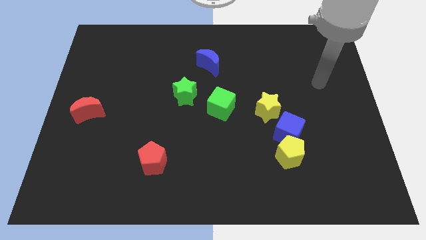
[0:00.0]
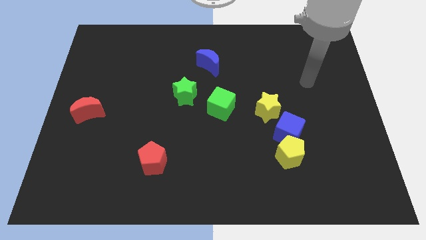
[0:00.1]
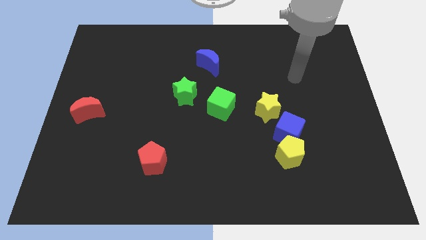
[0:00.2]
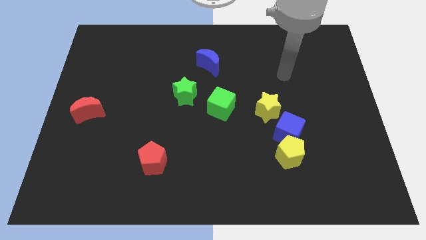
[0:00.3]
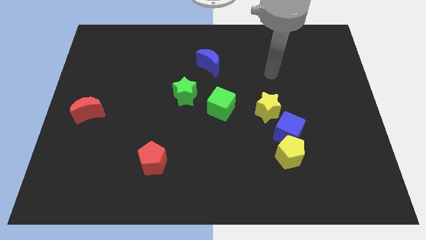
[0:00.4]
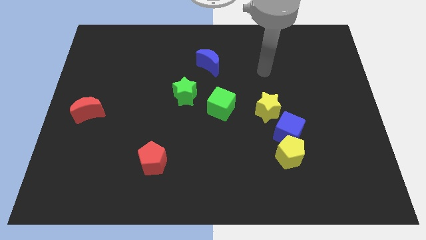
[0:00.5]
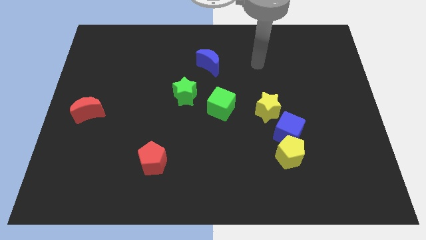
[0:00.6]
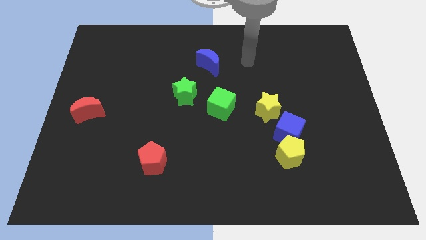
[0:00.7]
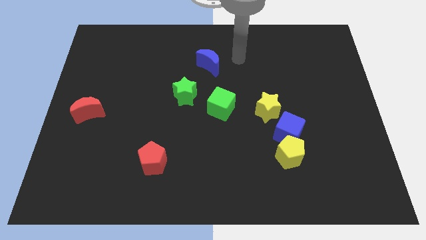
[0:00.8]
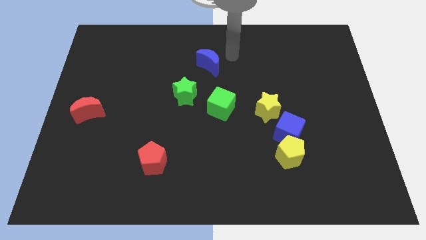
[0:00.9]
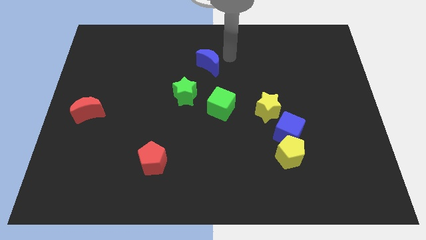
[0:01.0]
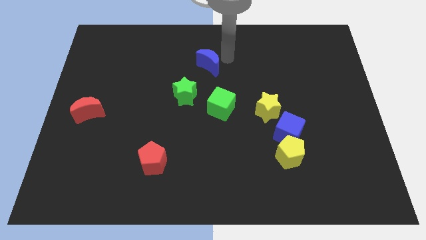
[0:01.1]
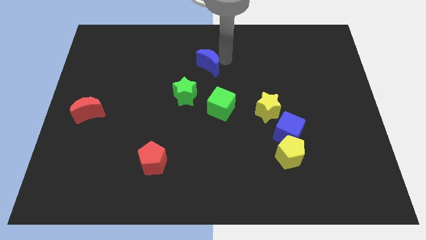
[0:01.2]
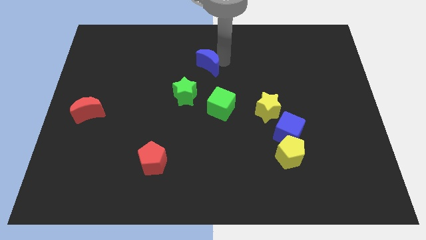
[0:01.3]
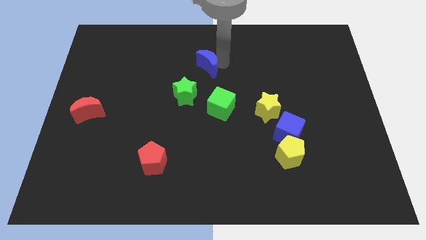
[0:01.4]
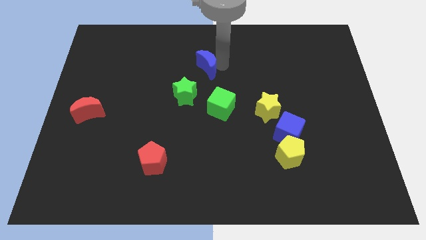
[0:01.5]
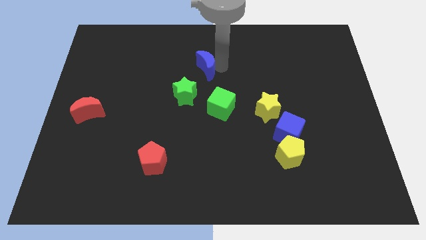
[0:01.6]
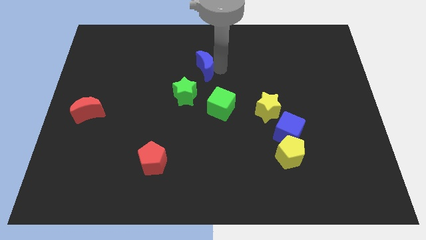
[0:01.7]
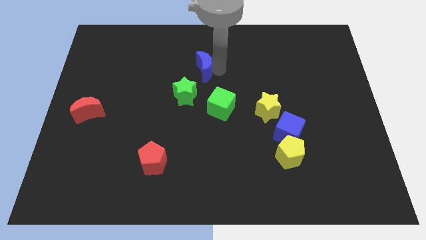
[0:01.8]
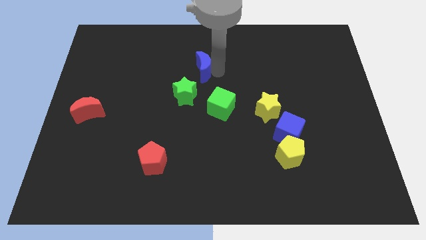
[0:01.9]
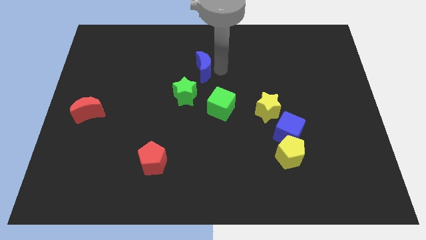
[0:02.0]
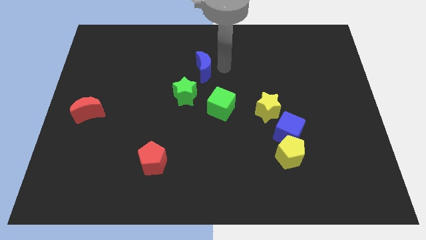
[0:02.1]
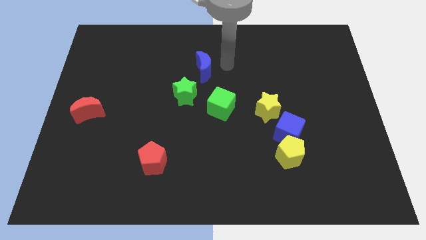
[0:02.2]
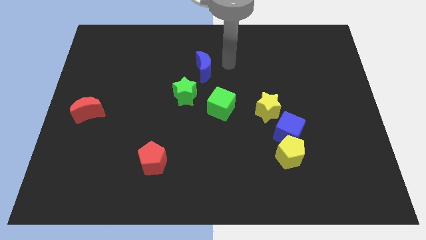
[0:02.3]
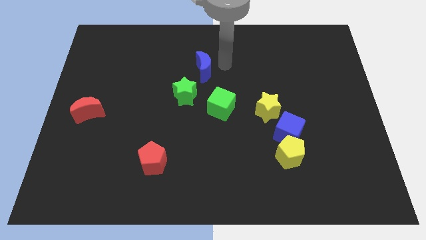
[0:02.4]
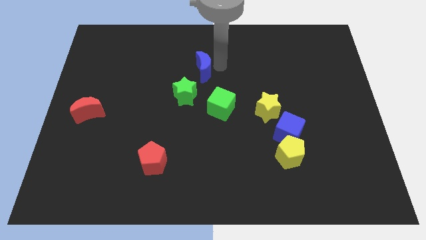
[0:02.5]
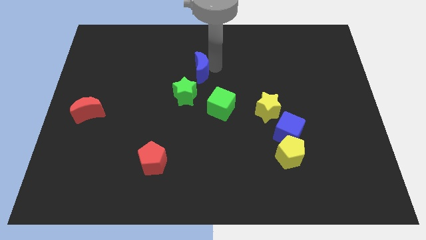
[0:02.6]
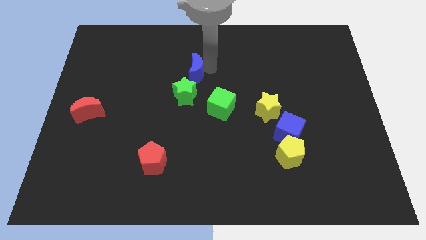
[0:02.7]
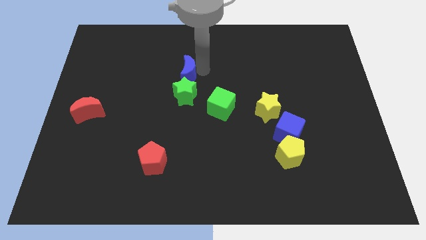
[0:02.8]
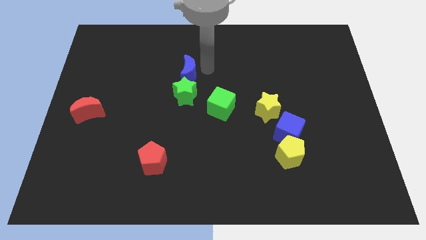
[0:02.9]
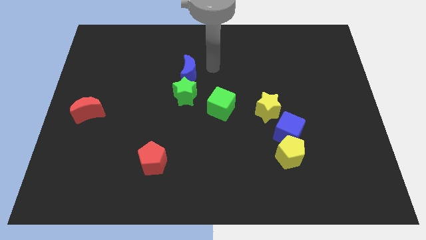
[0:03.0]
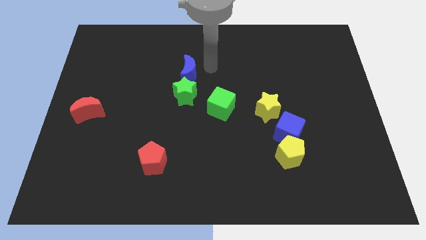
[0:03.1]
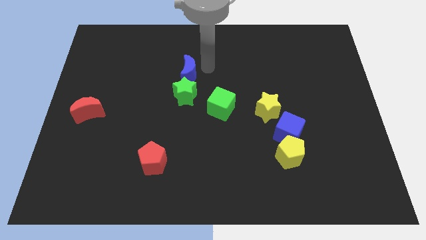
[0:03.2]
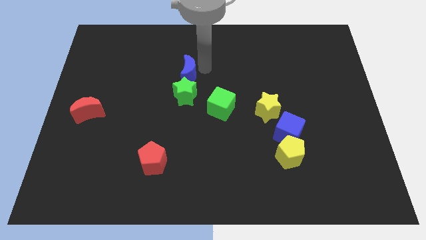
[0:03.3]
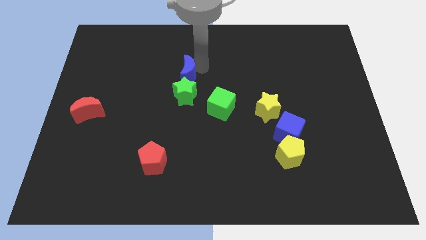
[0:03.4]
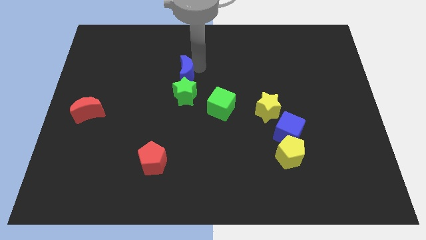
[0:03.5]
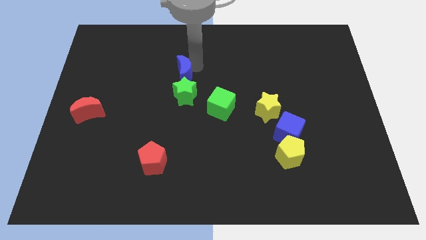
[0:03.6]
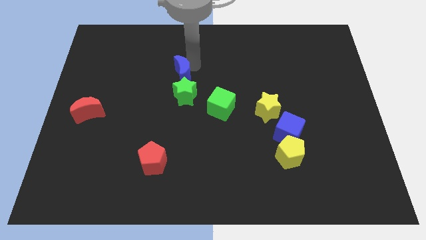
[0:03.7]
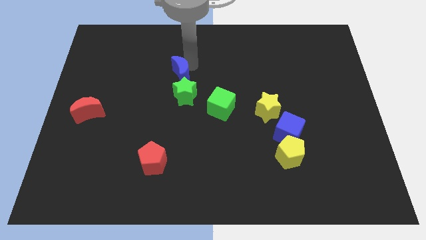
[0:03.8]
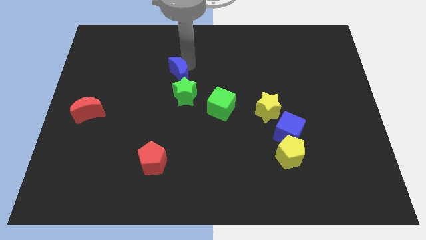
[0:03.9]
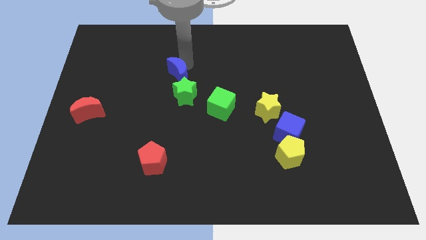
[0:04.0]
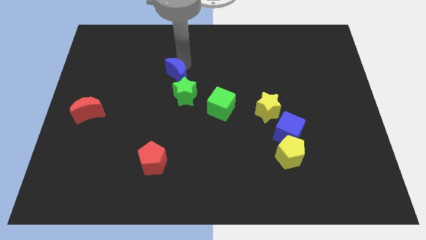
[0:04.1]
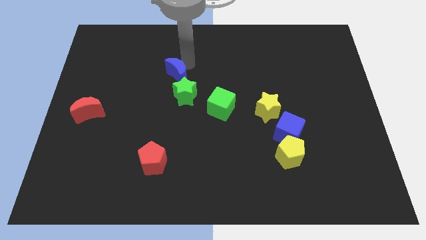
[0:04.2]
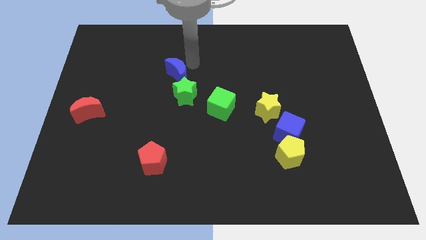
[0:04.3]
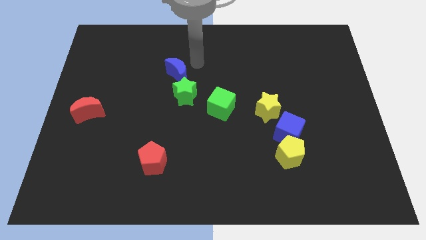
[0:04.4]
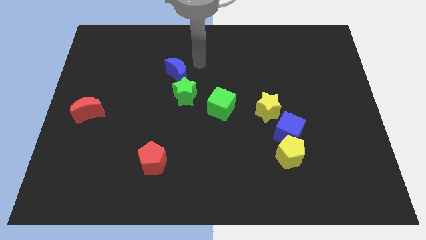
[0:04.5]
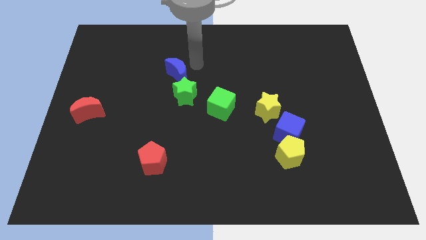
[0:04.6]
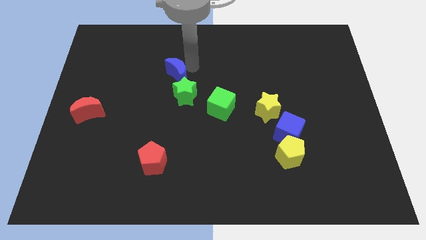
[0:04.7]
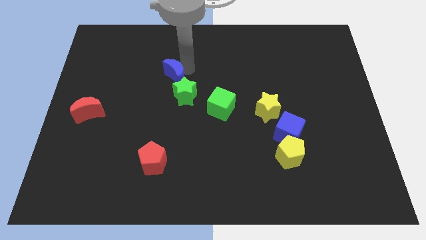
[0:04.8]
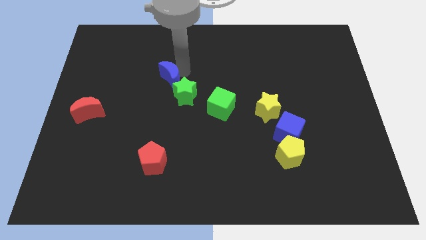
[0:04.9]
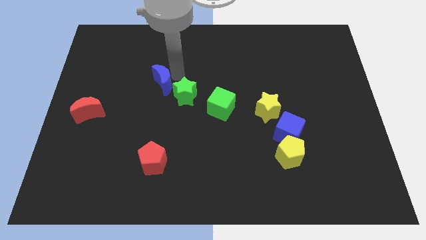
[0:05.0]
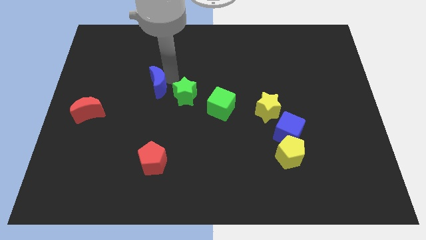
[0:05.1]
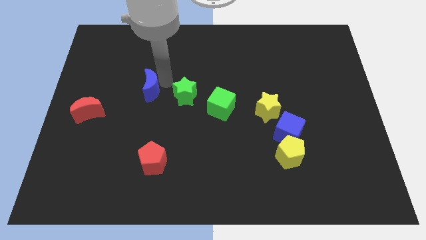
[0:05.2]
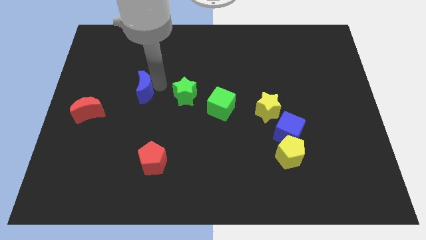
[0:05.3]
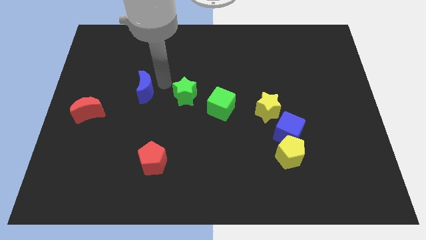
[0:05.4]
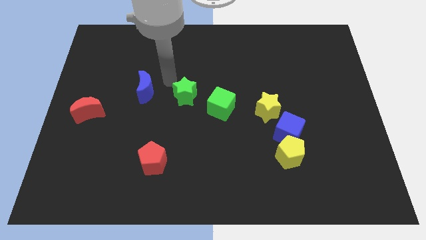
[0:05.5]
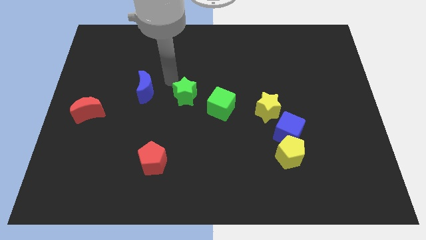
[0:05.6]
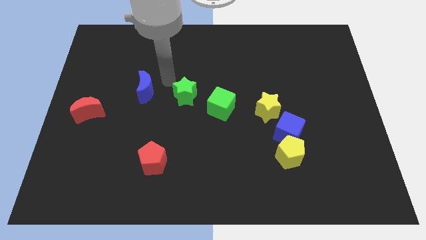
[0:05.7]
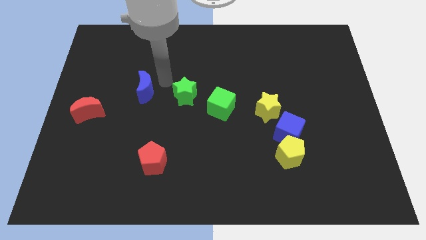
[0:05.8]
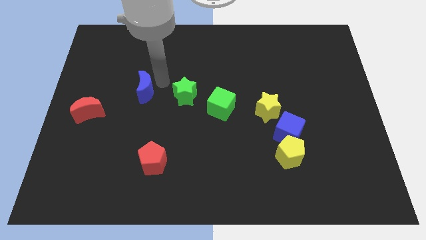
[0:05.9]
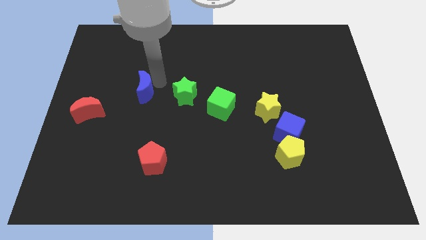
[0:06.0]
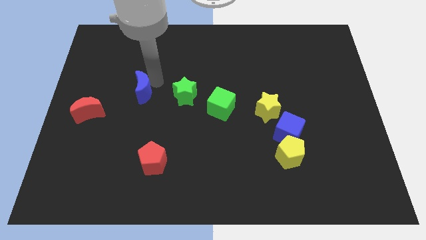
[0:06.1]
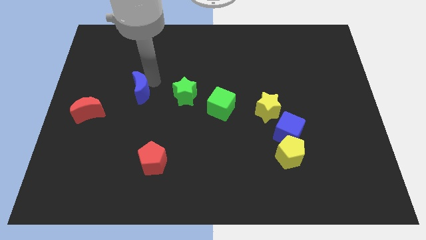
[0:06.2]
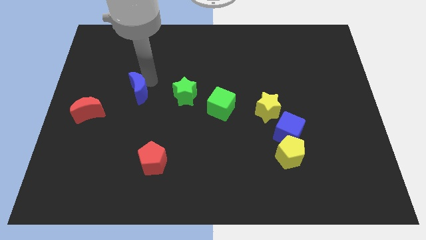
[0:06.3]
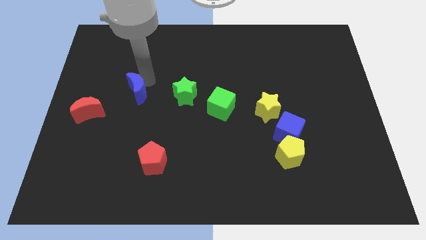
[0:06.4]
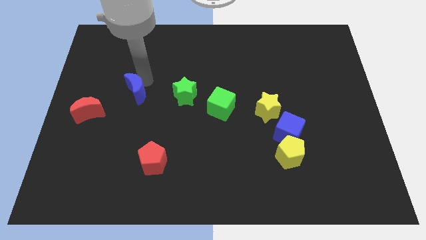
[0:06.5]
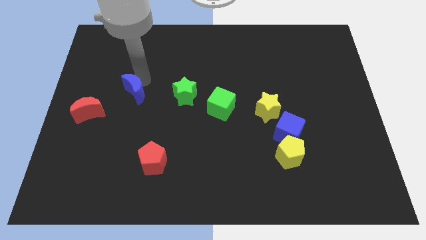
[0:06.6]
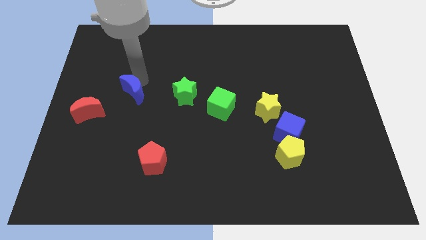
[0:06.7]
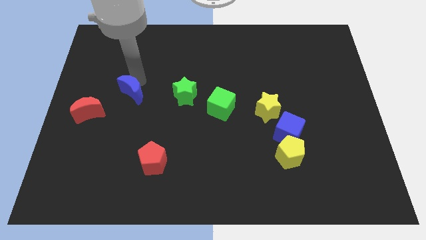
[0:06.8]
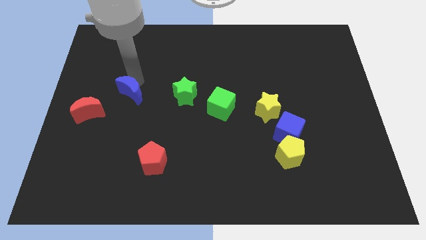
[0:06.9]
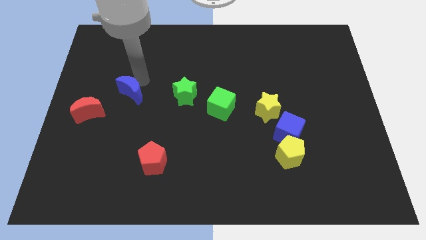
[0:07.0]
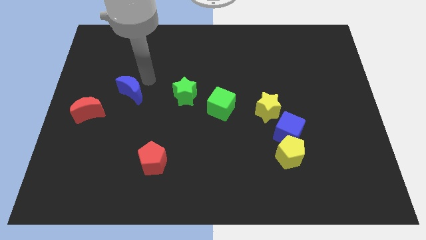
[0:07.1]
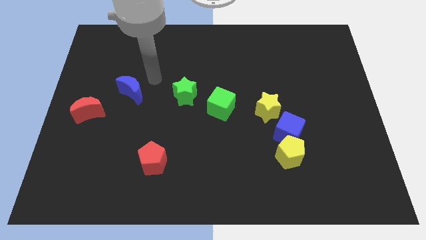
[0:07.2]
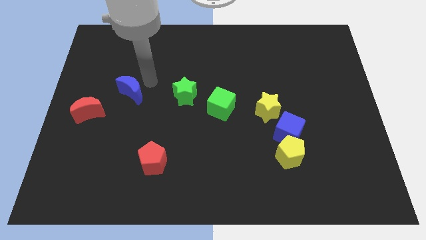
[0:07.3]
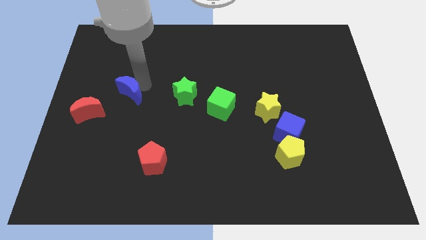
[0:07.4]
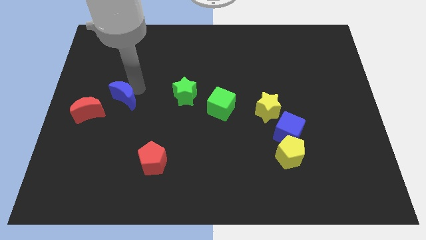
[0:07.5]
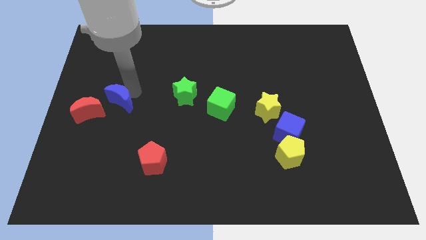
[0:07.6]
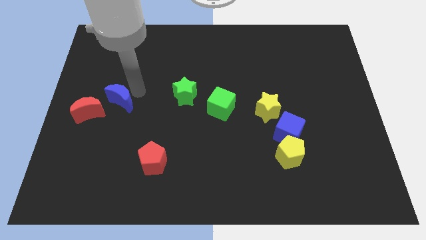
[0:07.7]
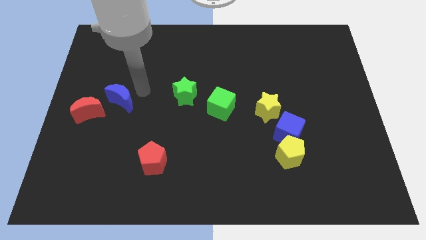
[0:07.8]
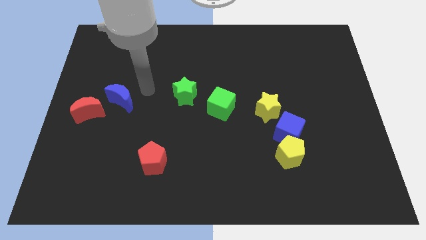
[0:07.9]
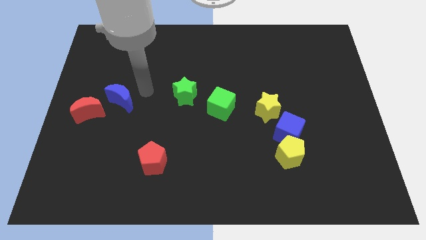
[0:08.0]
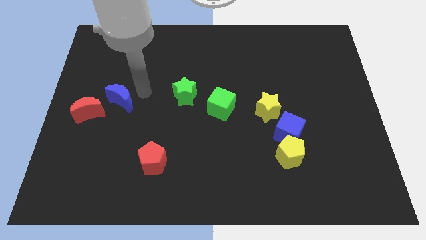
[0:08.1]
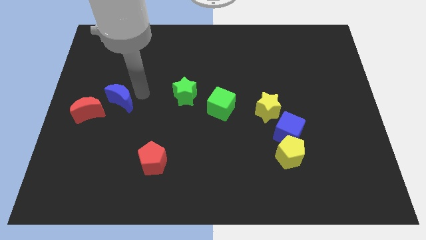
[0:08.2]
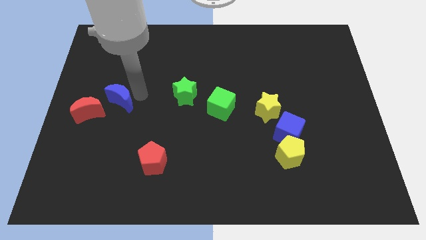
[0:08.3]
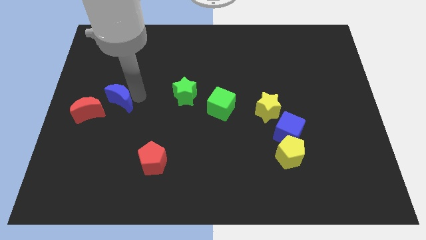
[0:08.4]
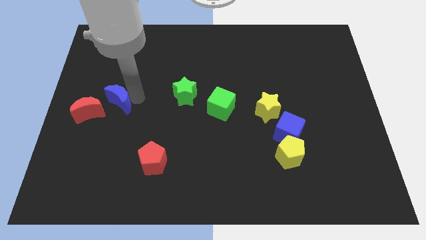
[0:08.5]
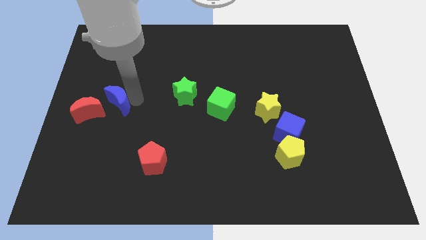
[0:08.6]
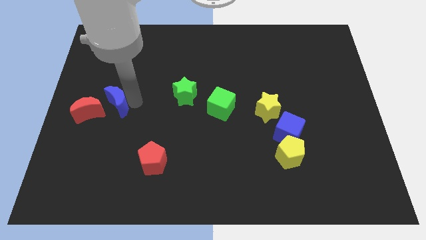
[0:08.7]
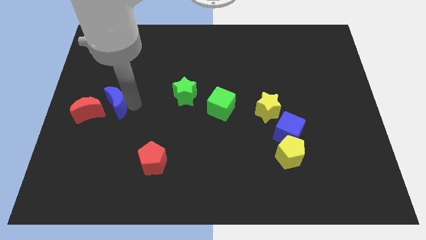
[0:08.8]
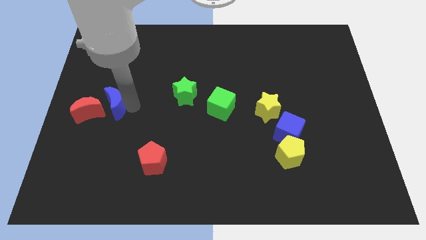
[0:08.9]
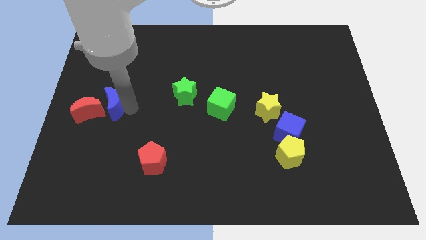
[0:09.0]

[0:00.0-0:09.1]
push the blue moon to the red moon
